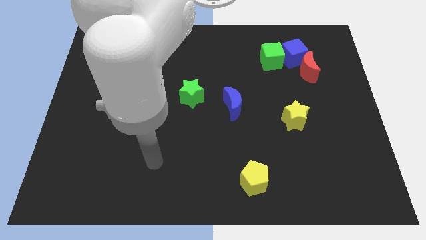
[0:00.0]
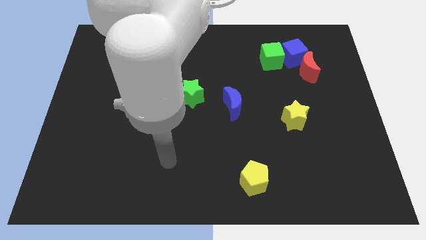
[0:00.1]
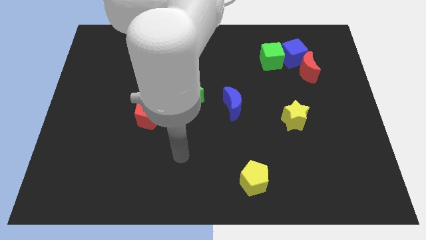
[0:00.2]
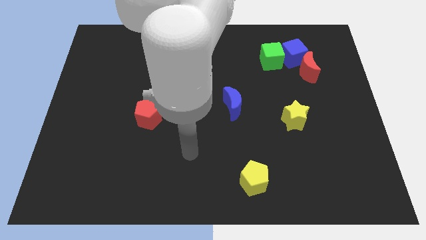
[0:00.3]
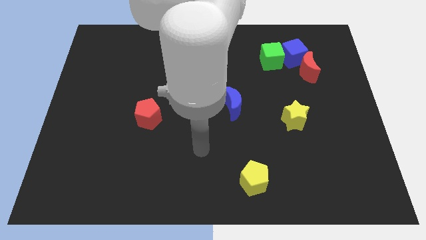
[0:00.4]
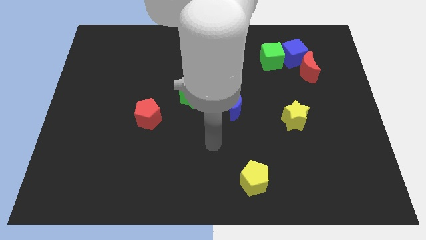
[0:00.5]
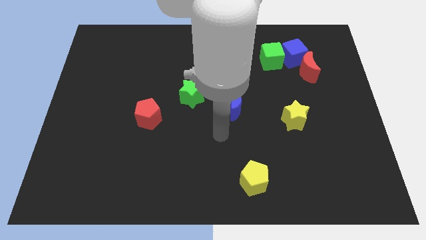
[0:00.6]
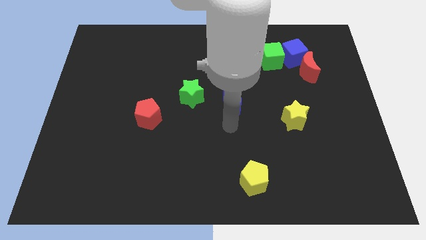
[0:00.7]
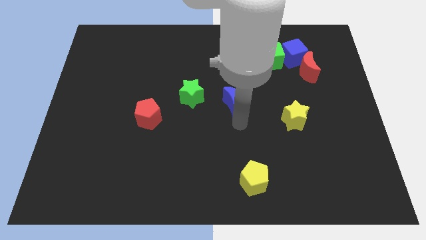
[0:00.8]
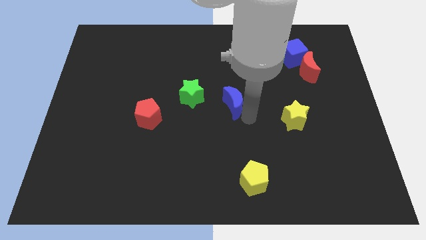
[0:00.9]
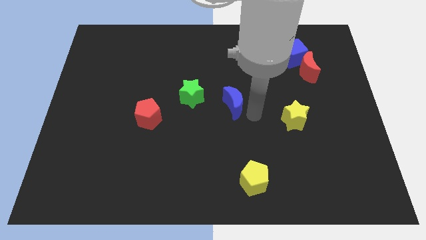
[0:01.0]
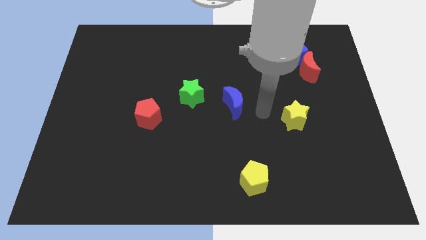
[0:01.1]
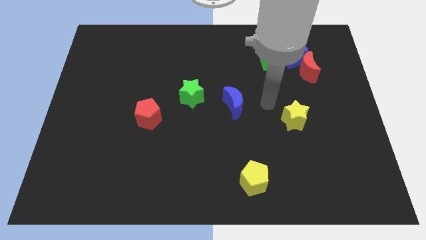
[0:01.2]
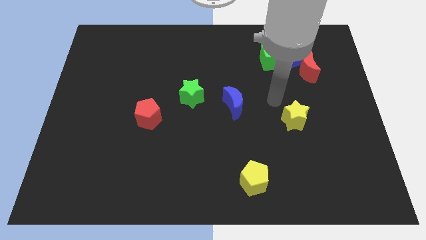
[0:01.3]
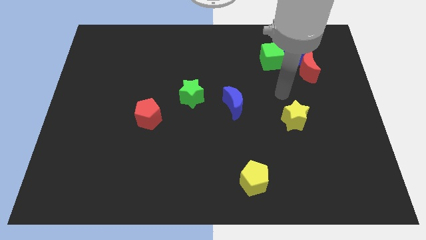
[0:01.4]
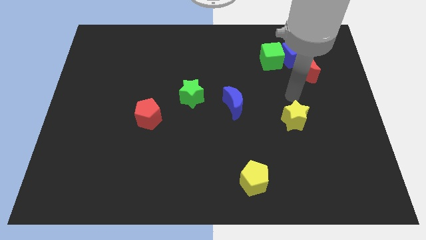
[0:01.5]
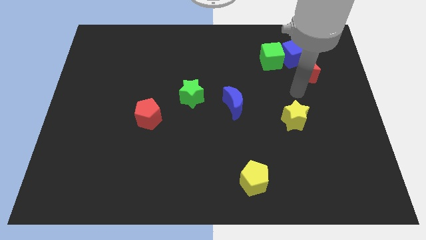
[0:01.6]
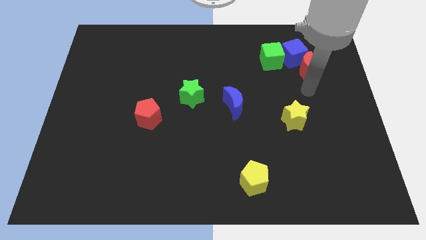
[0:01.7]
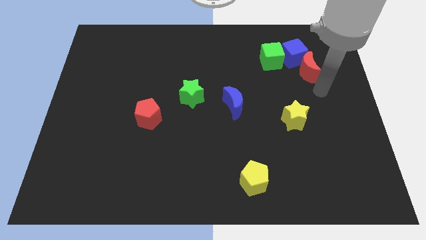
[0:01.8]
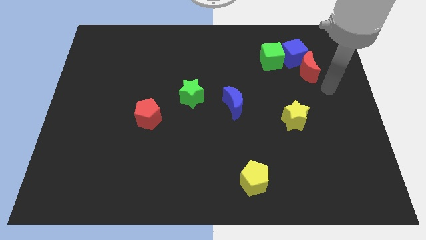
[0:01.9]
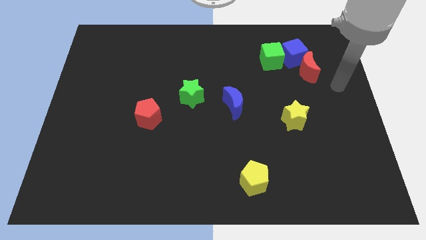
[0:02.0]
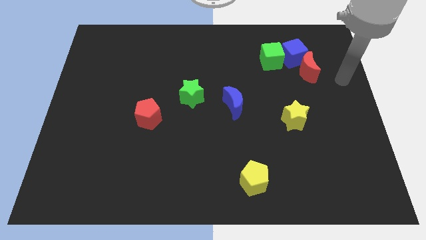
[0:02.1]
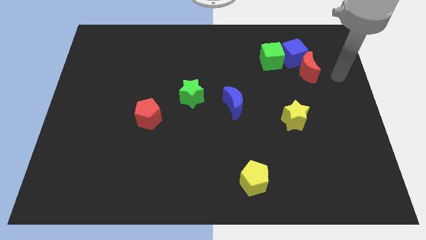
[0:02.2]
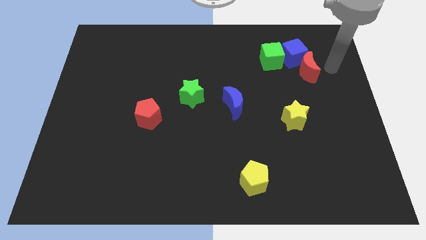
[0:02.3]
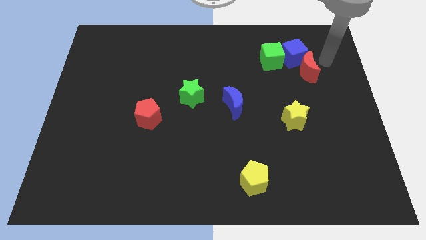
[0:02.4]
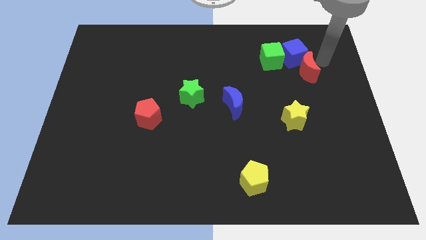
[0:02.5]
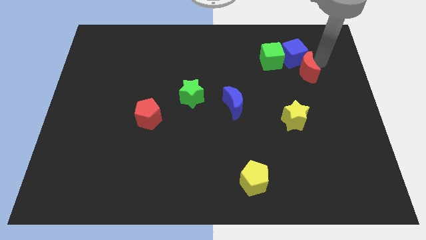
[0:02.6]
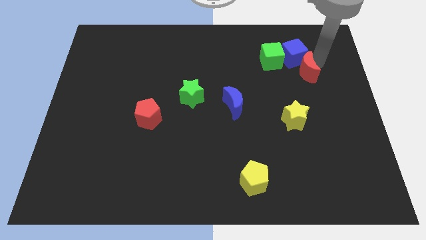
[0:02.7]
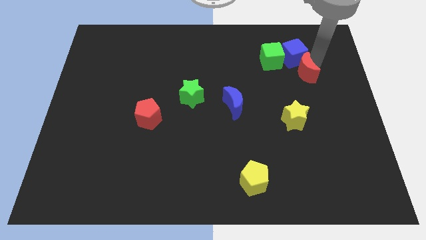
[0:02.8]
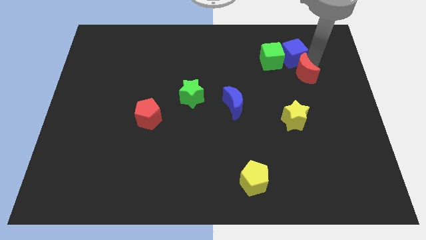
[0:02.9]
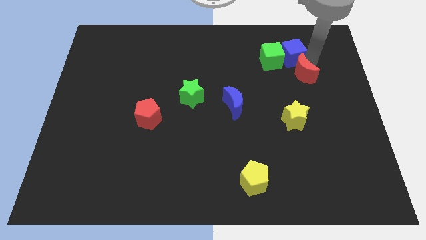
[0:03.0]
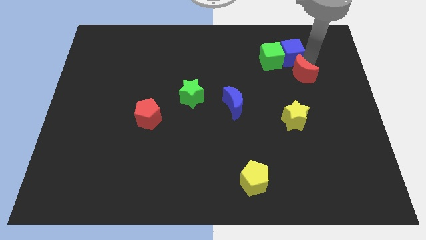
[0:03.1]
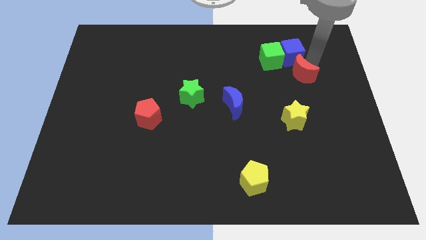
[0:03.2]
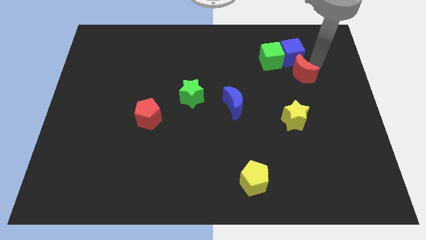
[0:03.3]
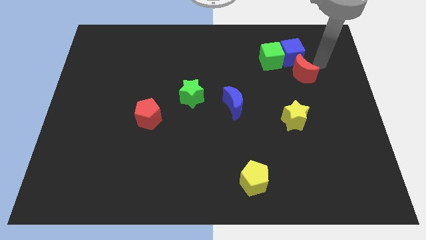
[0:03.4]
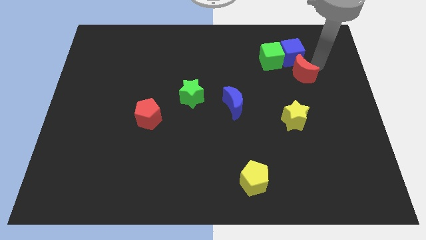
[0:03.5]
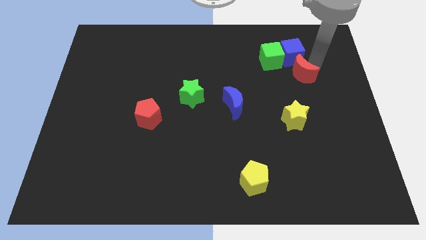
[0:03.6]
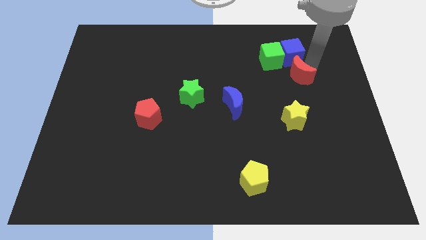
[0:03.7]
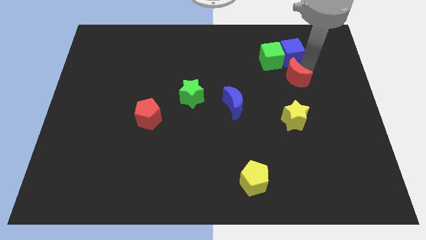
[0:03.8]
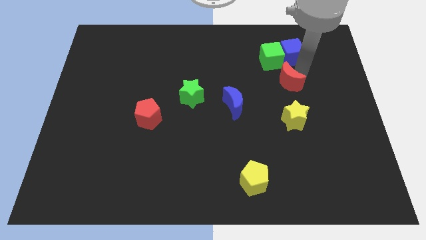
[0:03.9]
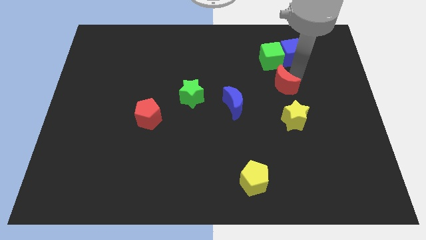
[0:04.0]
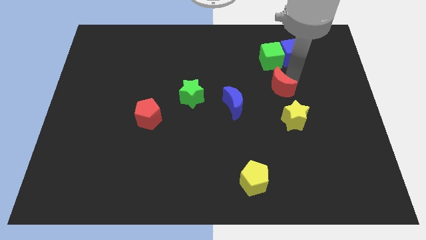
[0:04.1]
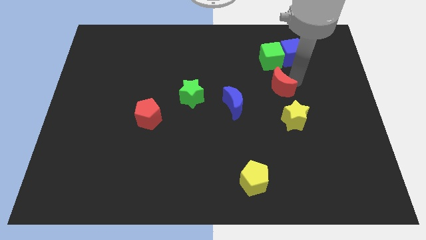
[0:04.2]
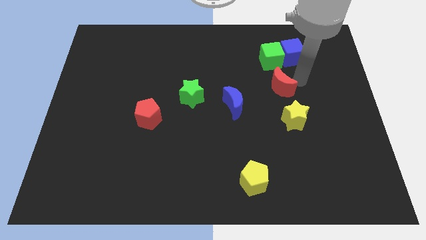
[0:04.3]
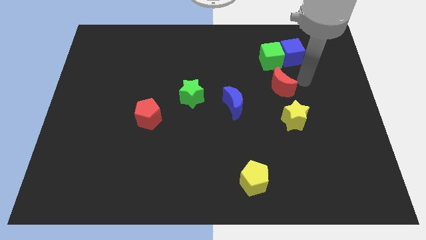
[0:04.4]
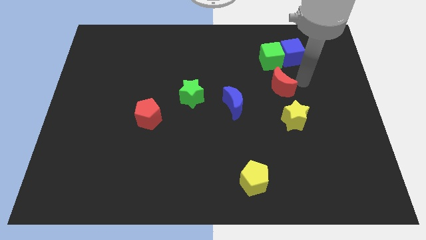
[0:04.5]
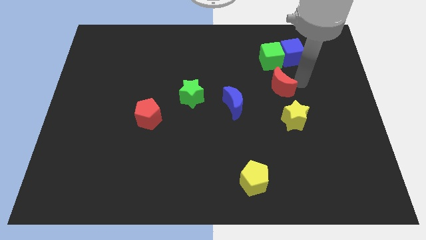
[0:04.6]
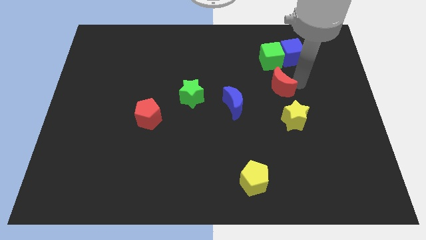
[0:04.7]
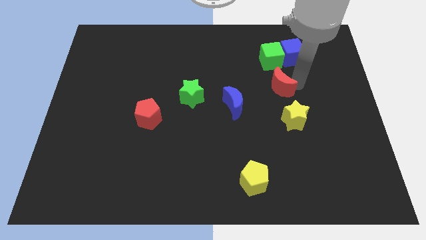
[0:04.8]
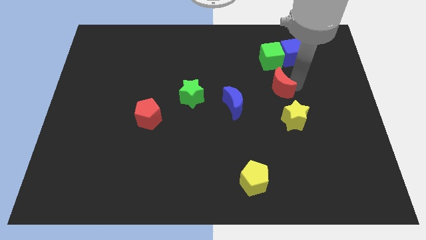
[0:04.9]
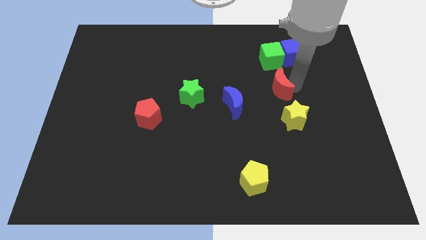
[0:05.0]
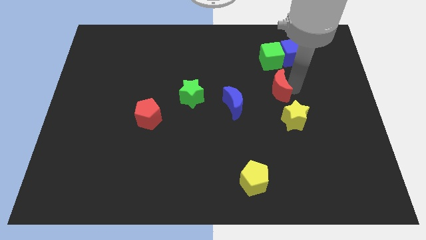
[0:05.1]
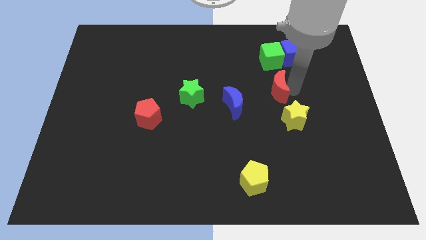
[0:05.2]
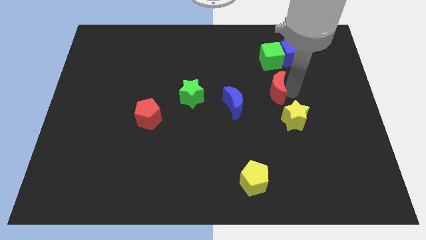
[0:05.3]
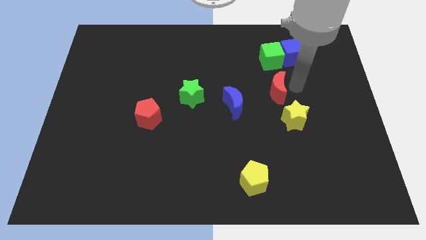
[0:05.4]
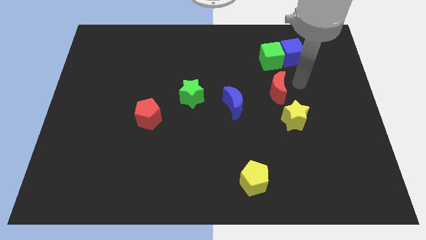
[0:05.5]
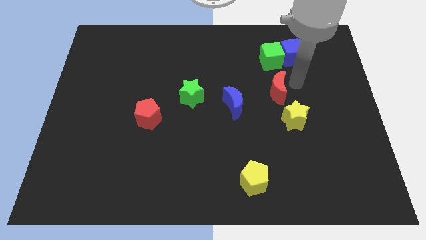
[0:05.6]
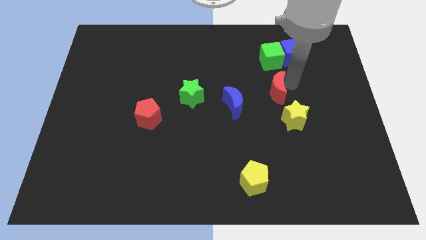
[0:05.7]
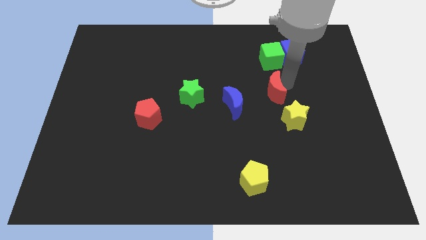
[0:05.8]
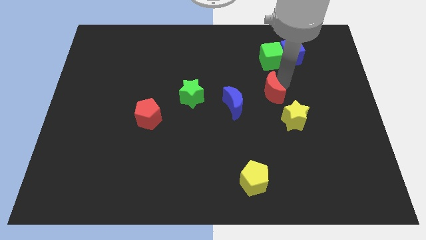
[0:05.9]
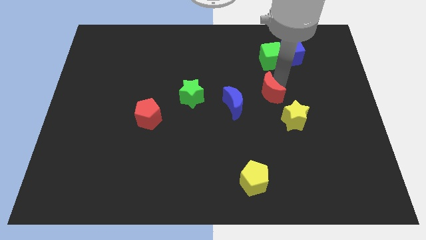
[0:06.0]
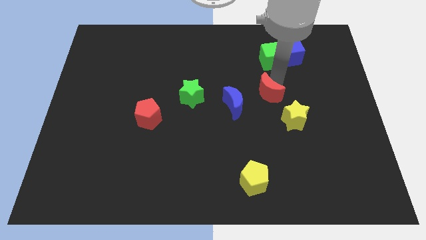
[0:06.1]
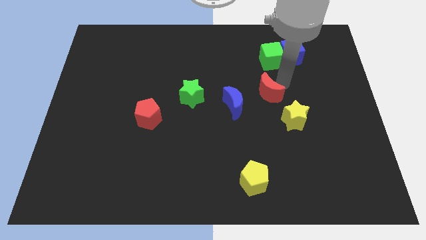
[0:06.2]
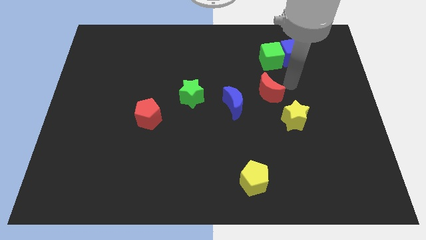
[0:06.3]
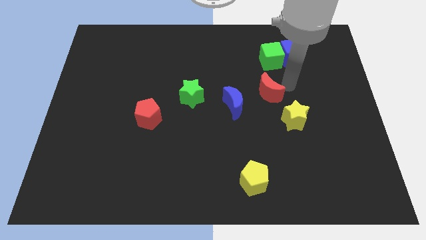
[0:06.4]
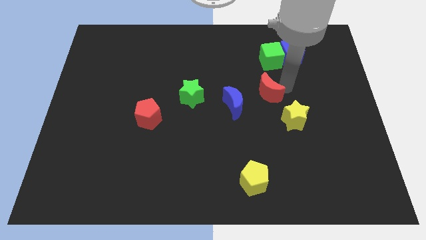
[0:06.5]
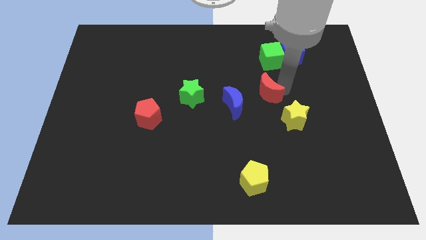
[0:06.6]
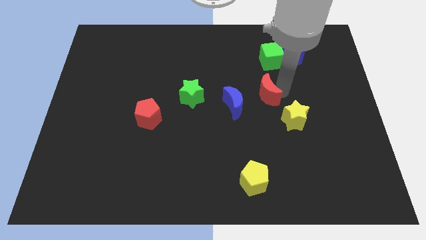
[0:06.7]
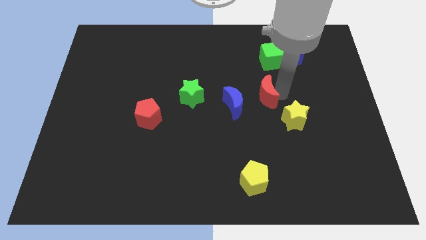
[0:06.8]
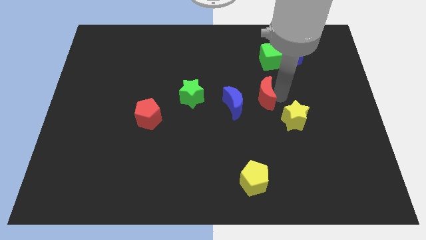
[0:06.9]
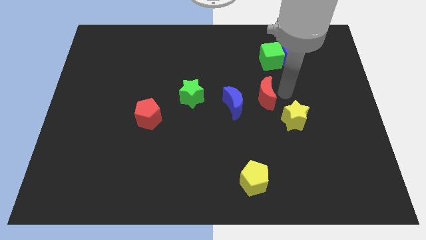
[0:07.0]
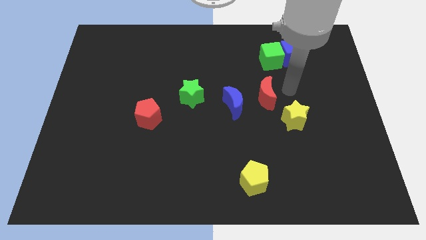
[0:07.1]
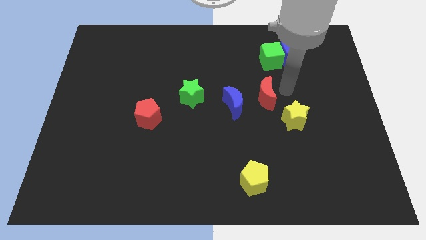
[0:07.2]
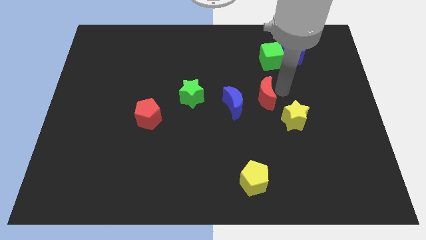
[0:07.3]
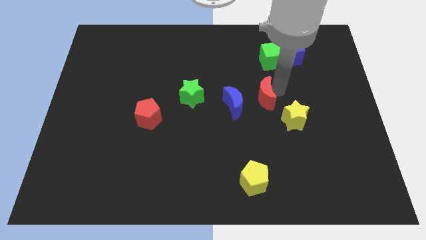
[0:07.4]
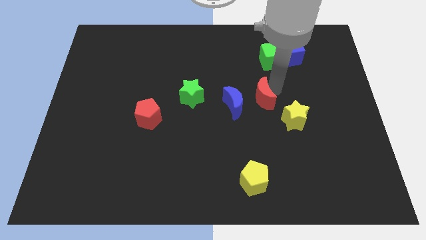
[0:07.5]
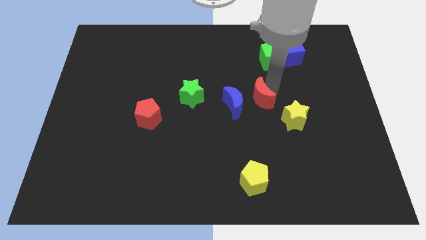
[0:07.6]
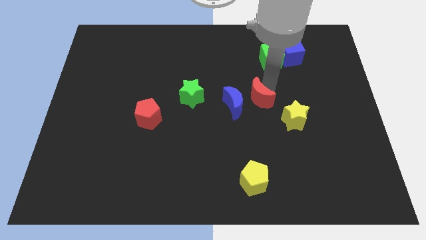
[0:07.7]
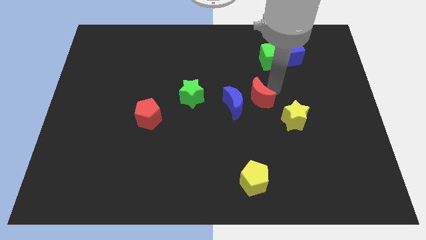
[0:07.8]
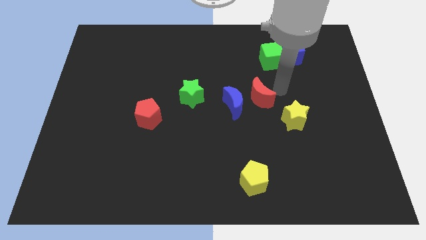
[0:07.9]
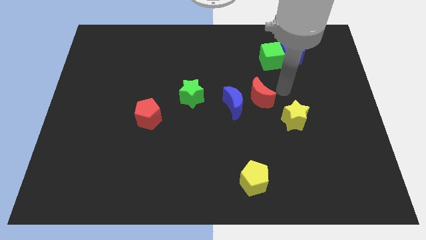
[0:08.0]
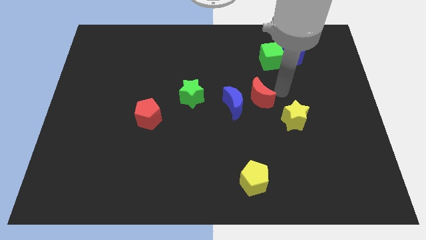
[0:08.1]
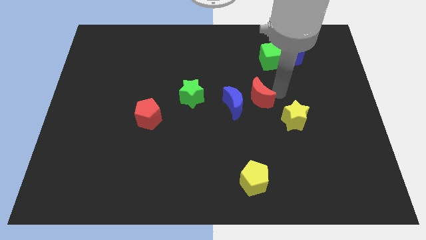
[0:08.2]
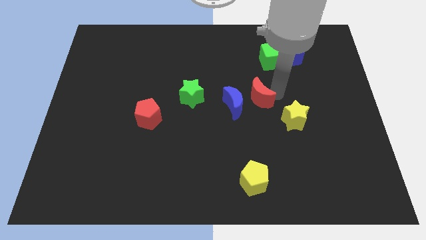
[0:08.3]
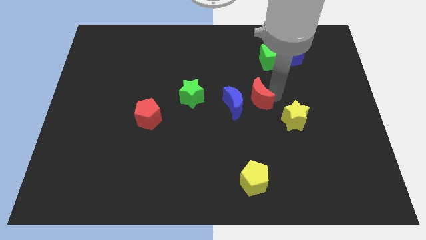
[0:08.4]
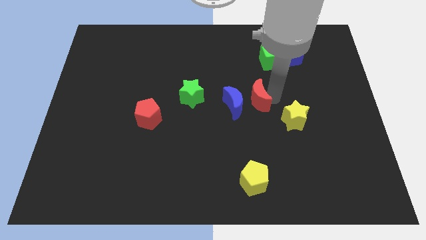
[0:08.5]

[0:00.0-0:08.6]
move the red moon next to the blue moon
